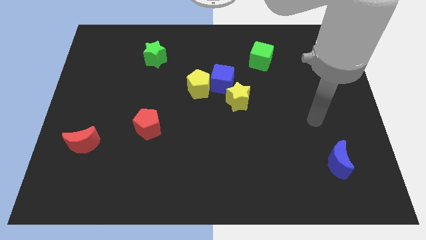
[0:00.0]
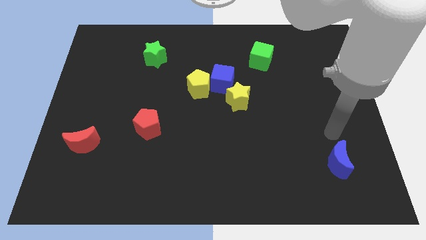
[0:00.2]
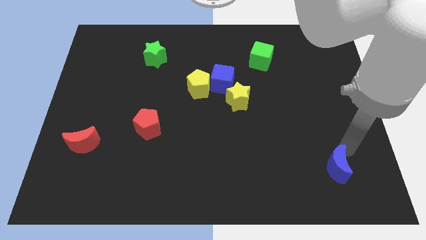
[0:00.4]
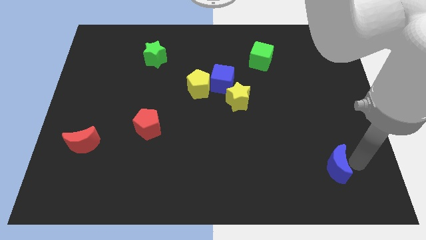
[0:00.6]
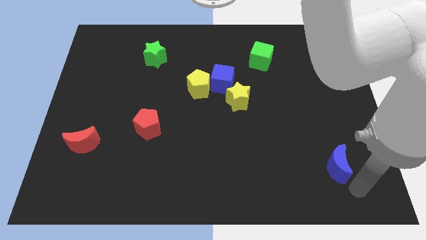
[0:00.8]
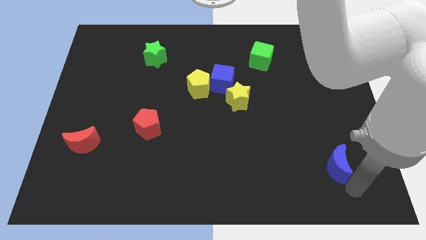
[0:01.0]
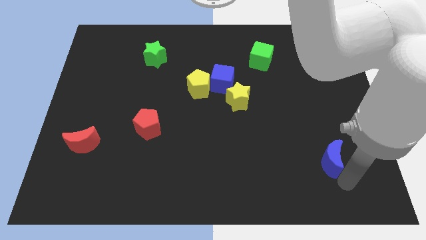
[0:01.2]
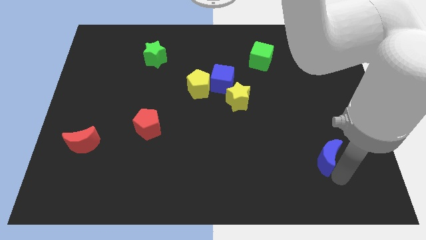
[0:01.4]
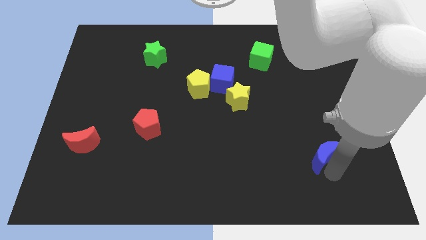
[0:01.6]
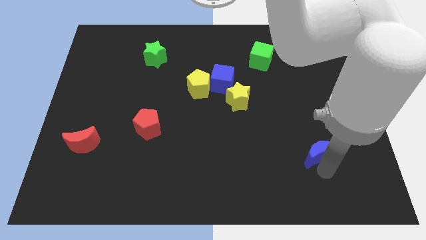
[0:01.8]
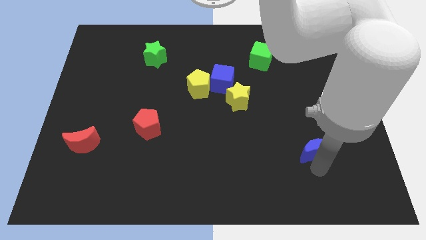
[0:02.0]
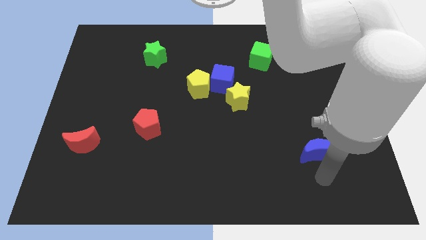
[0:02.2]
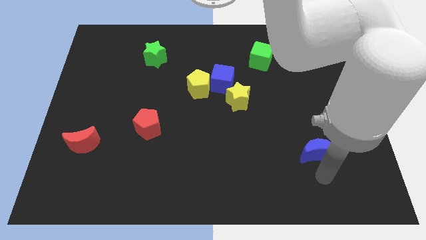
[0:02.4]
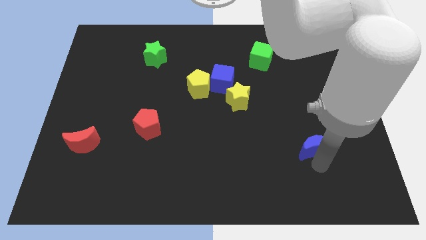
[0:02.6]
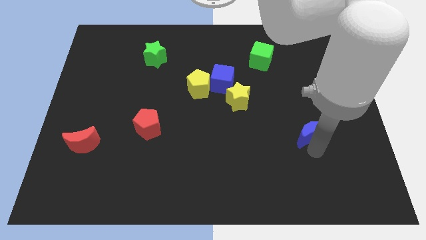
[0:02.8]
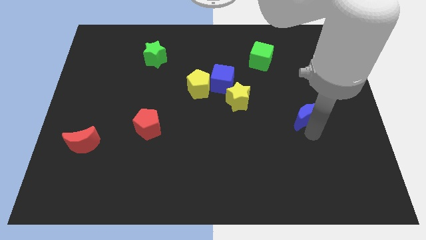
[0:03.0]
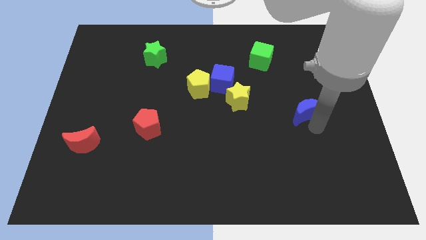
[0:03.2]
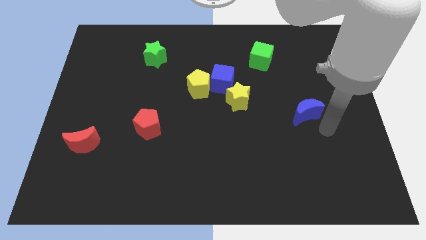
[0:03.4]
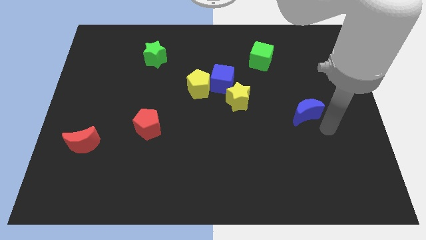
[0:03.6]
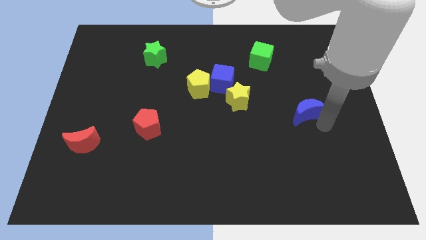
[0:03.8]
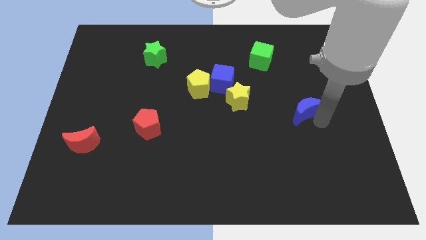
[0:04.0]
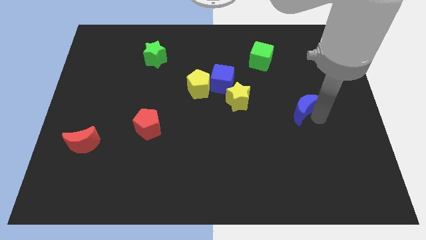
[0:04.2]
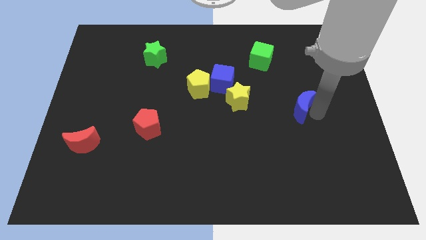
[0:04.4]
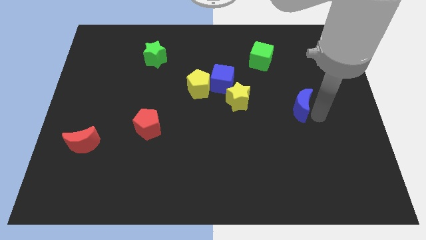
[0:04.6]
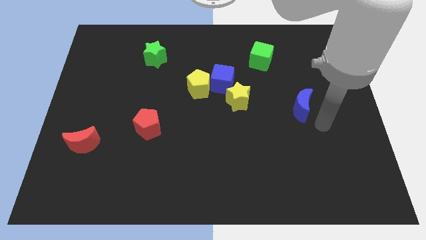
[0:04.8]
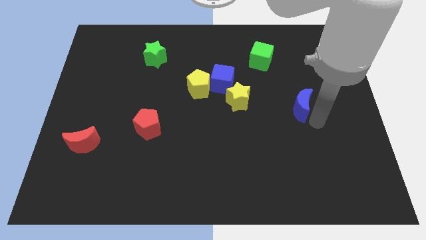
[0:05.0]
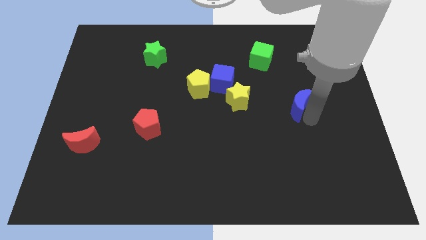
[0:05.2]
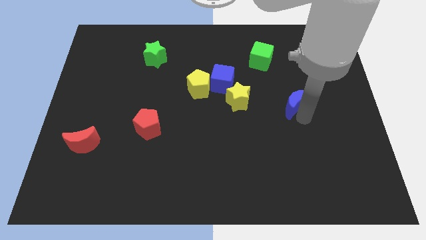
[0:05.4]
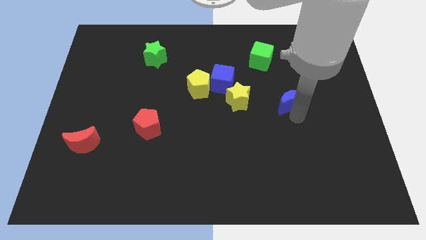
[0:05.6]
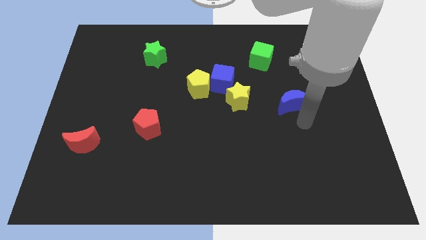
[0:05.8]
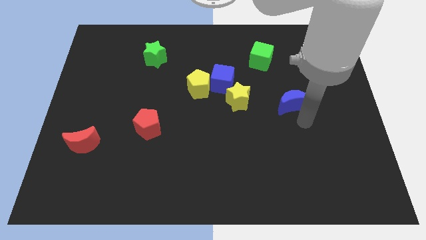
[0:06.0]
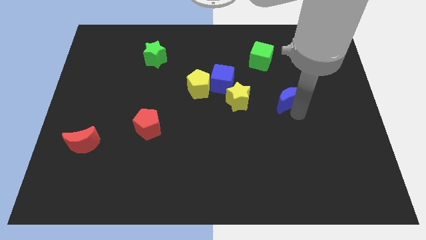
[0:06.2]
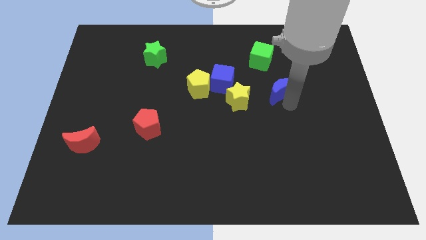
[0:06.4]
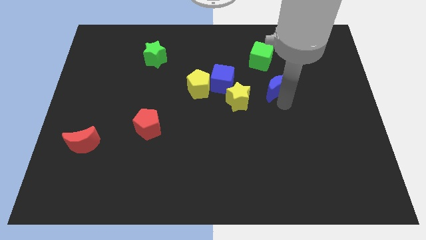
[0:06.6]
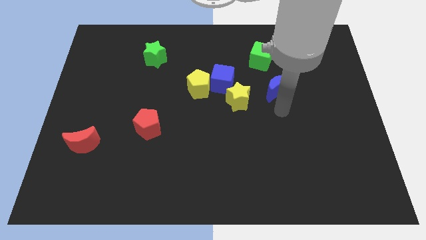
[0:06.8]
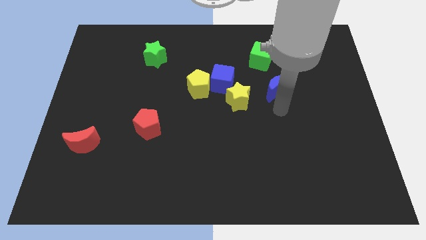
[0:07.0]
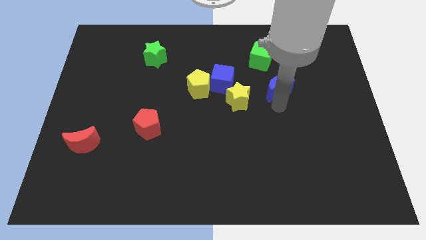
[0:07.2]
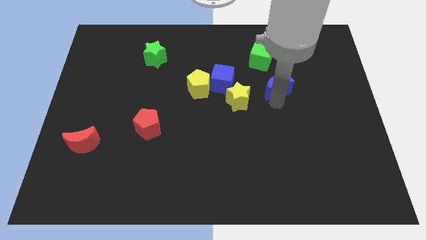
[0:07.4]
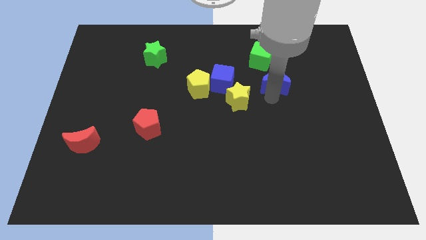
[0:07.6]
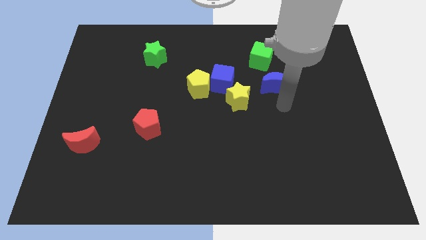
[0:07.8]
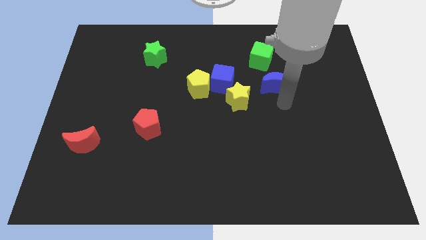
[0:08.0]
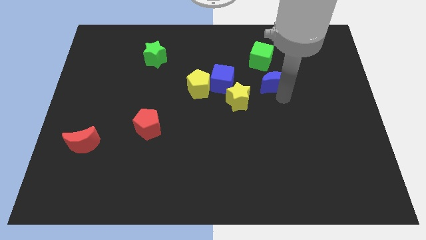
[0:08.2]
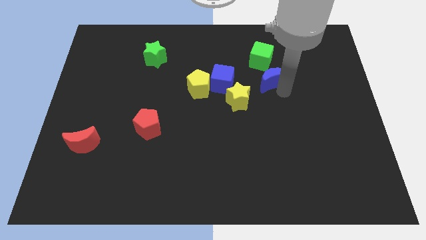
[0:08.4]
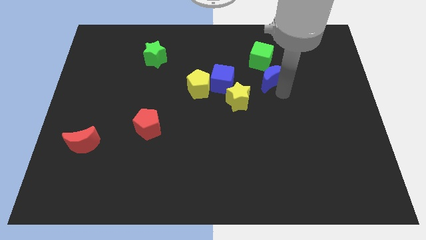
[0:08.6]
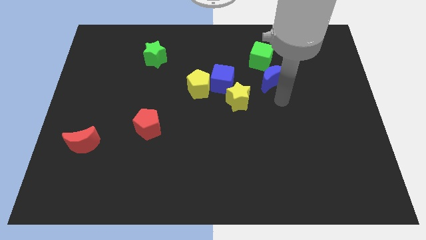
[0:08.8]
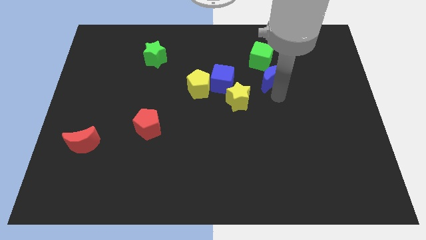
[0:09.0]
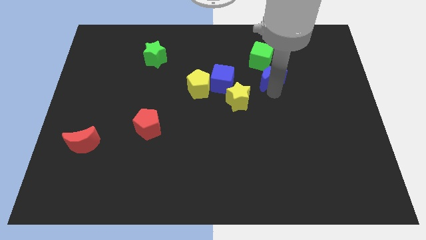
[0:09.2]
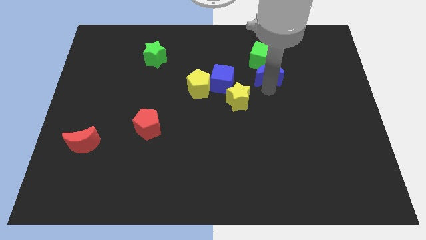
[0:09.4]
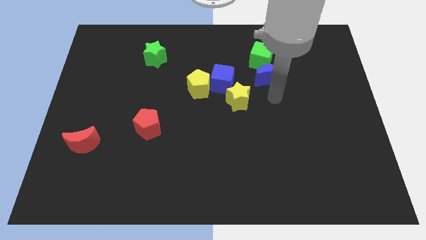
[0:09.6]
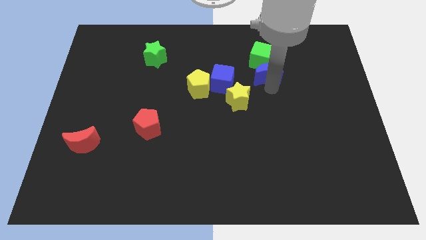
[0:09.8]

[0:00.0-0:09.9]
slide the blue moon towards the green cube

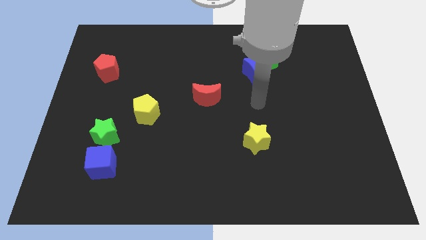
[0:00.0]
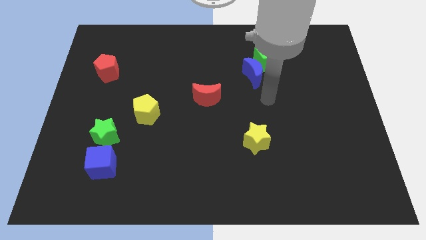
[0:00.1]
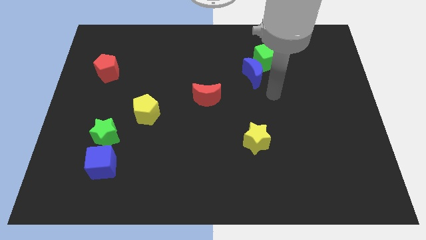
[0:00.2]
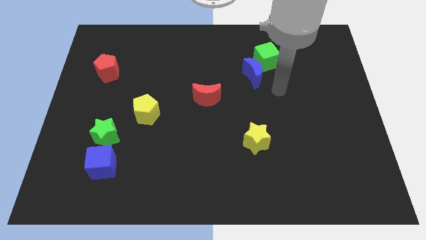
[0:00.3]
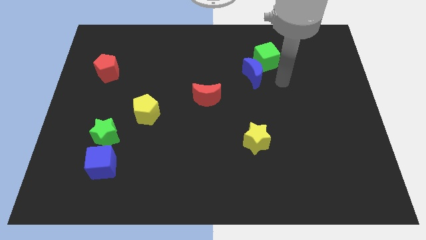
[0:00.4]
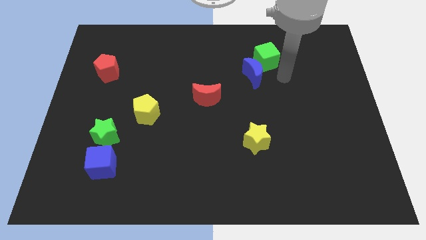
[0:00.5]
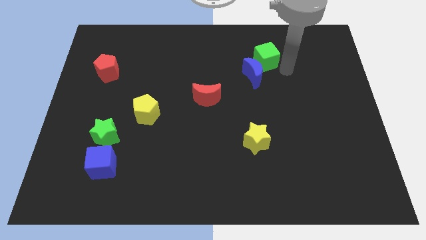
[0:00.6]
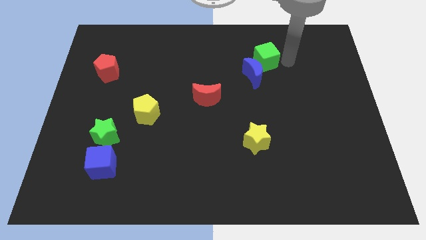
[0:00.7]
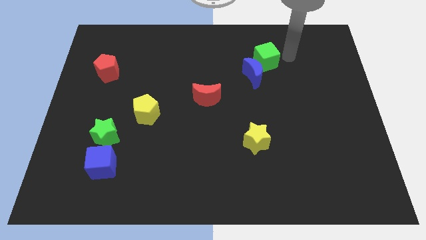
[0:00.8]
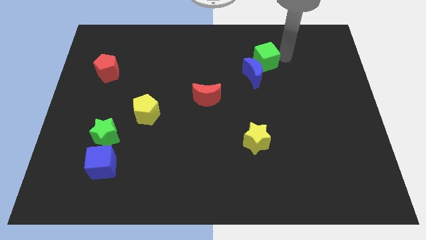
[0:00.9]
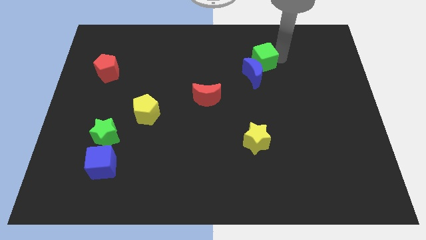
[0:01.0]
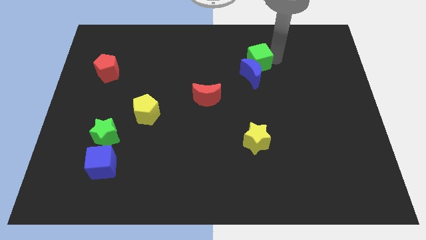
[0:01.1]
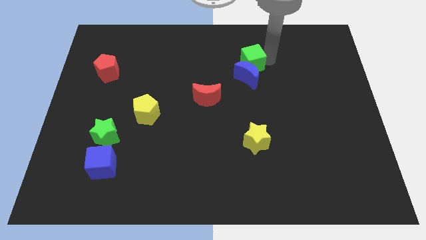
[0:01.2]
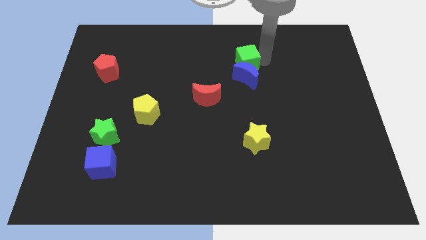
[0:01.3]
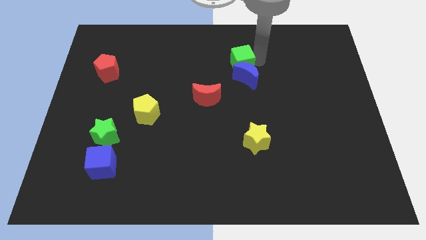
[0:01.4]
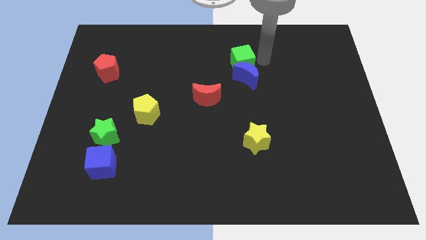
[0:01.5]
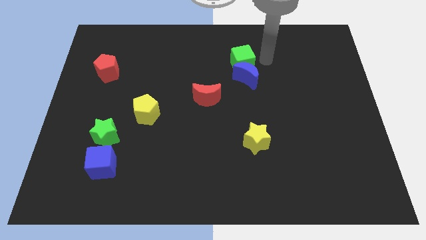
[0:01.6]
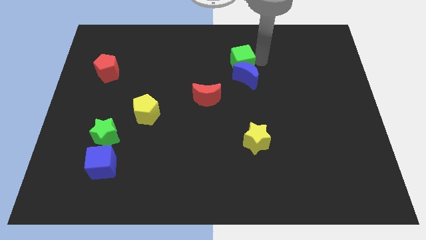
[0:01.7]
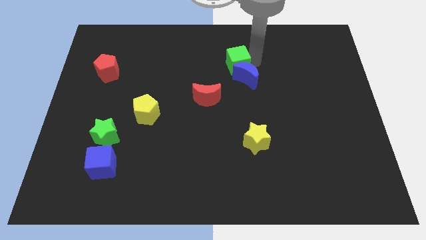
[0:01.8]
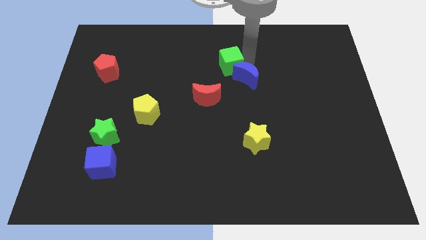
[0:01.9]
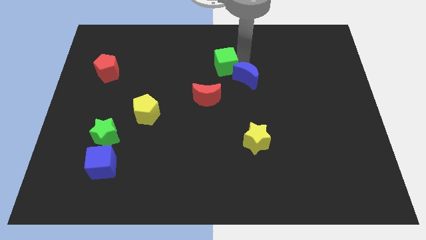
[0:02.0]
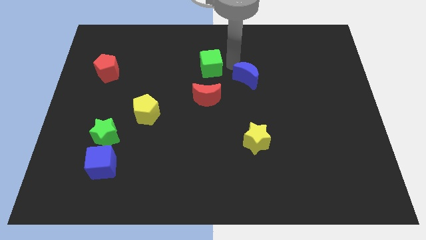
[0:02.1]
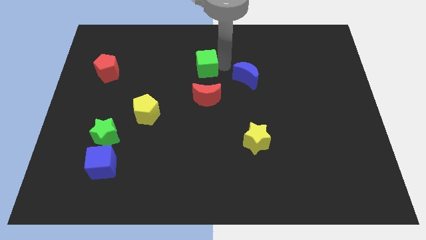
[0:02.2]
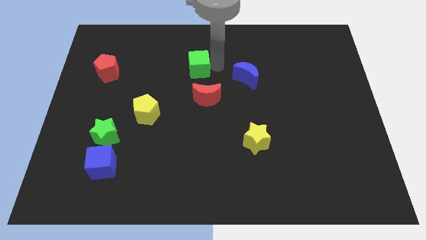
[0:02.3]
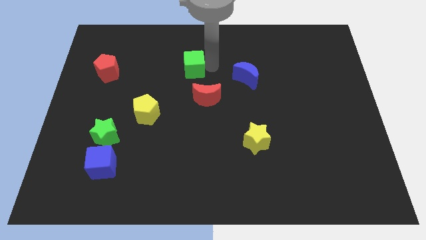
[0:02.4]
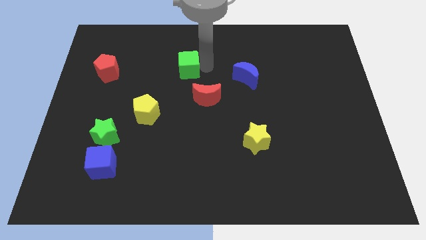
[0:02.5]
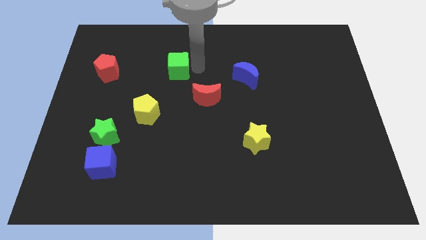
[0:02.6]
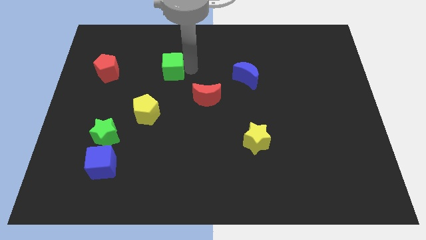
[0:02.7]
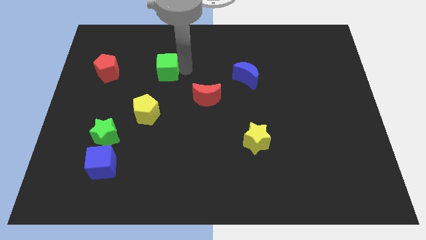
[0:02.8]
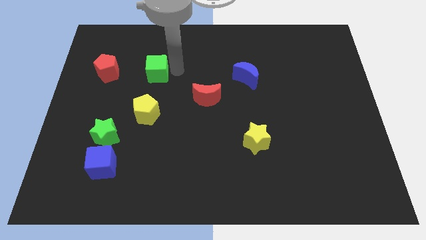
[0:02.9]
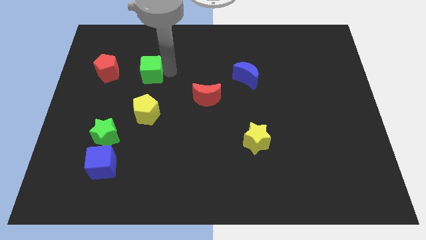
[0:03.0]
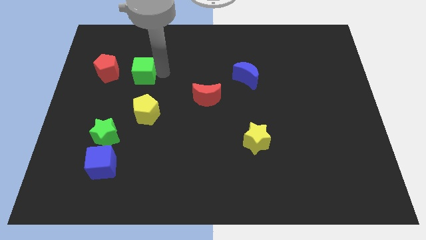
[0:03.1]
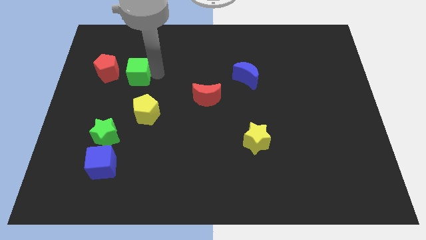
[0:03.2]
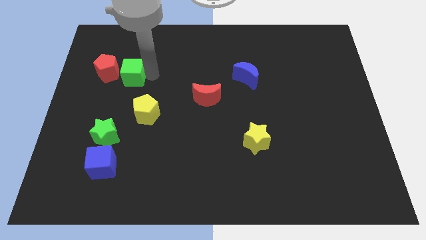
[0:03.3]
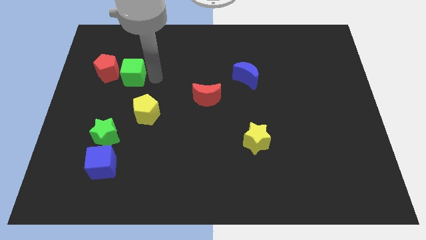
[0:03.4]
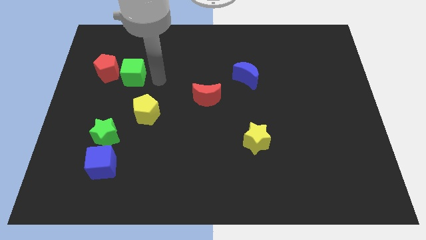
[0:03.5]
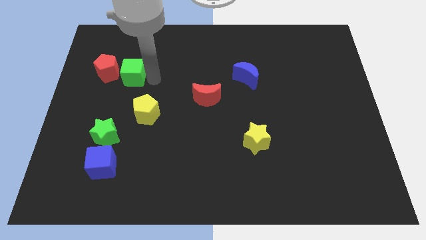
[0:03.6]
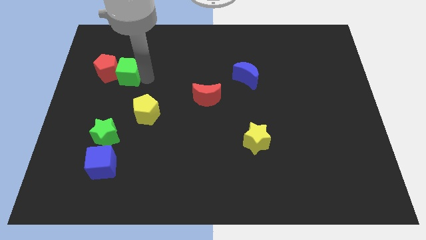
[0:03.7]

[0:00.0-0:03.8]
slide the green cube close to the red pentagon
